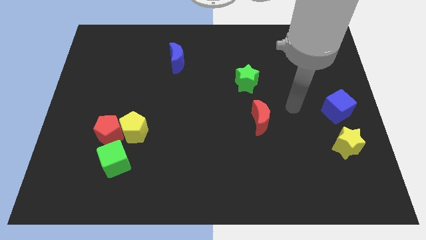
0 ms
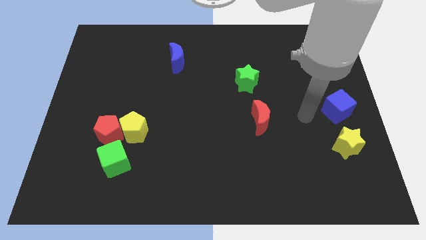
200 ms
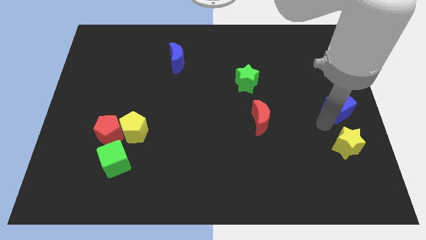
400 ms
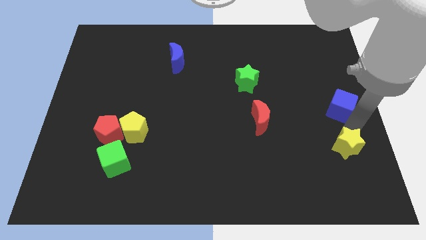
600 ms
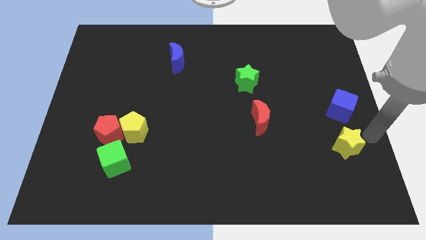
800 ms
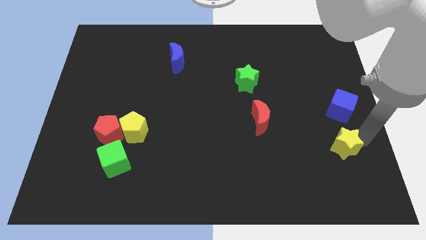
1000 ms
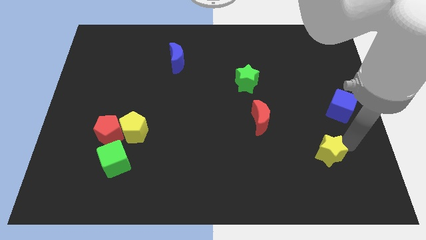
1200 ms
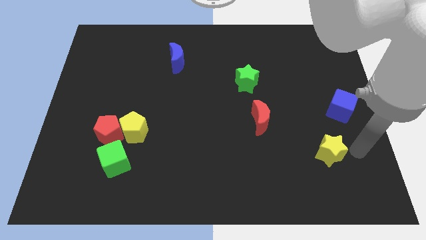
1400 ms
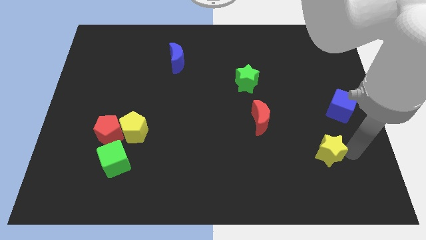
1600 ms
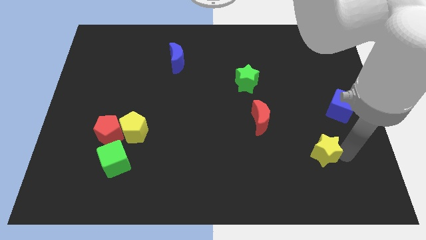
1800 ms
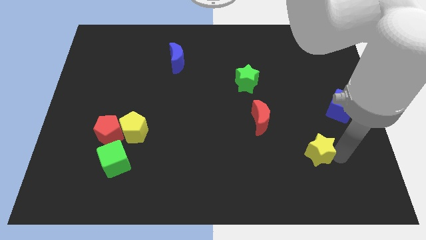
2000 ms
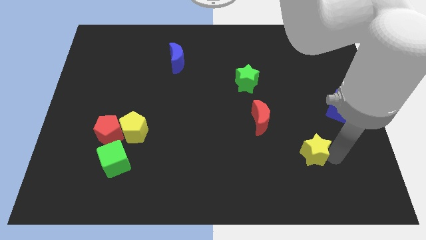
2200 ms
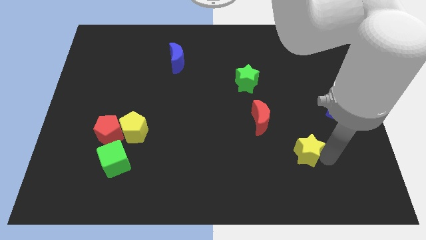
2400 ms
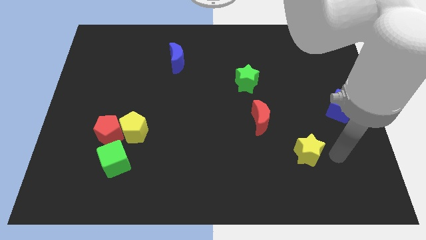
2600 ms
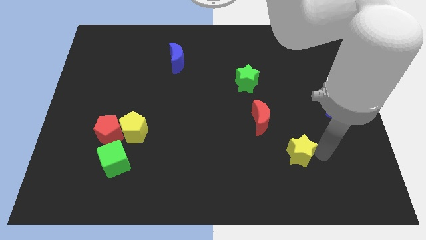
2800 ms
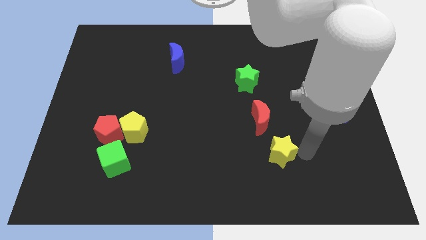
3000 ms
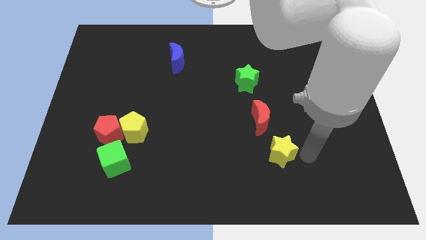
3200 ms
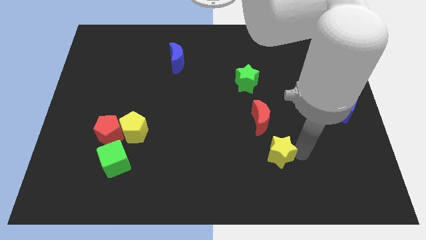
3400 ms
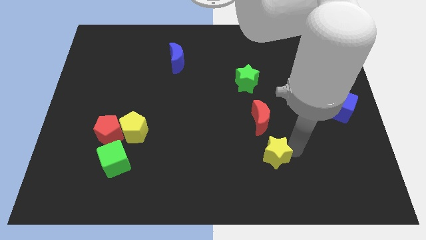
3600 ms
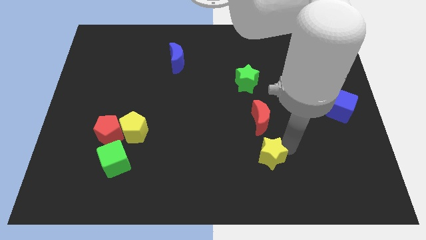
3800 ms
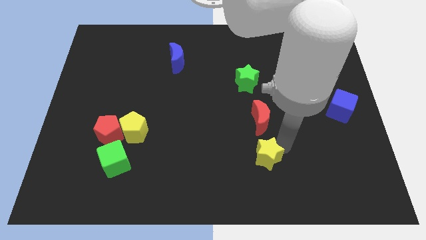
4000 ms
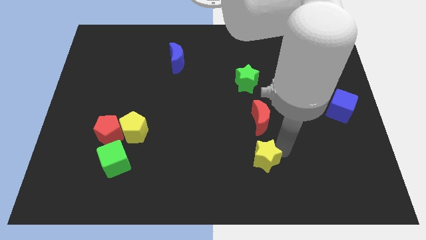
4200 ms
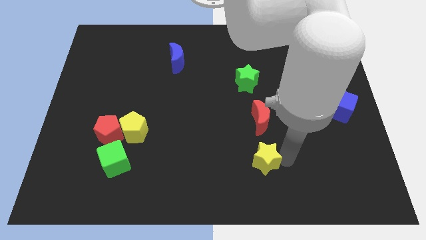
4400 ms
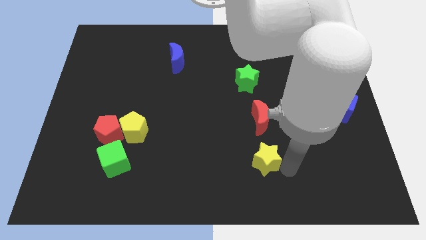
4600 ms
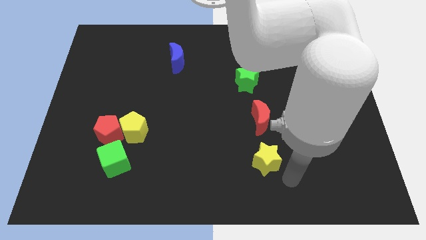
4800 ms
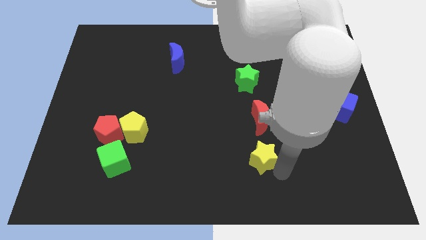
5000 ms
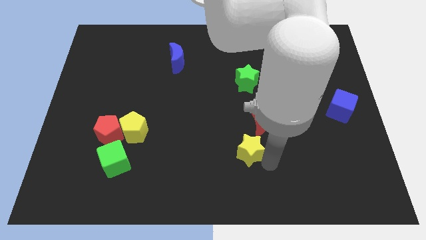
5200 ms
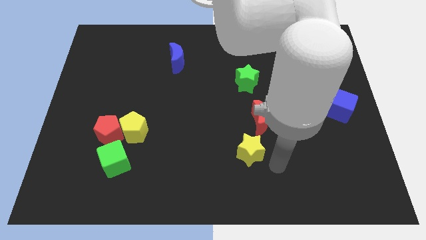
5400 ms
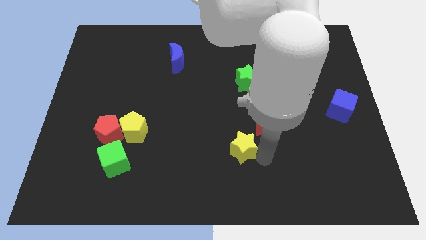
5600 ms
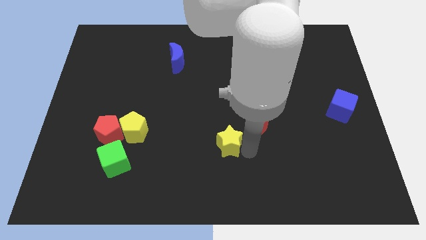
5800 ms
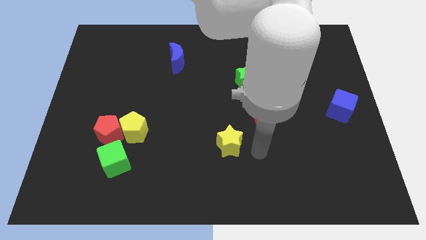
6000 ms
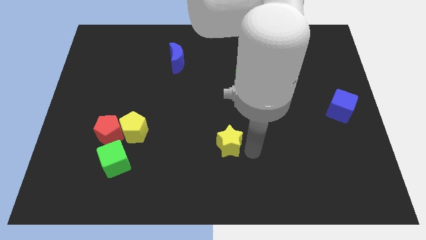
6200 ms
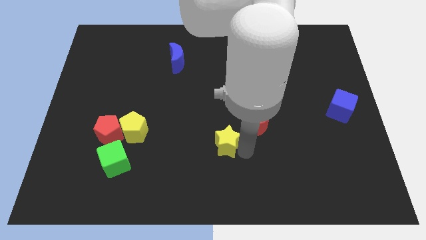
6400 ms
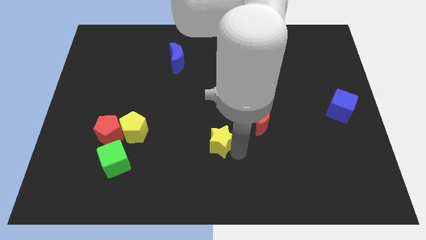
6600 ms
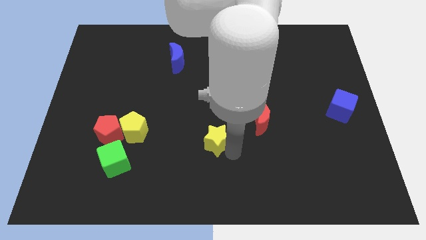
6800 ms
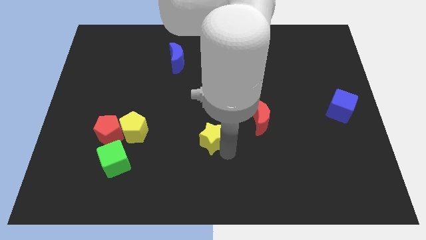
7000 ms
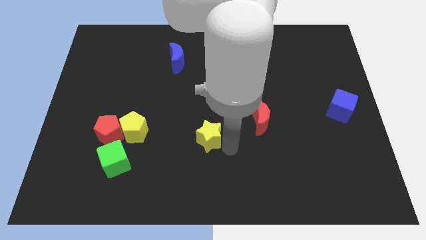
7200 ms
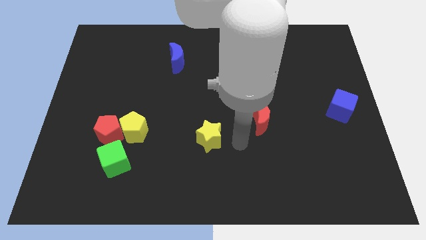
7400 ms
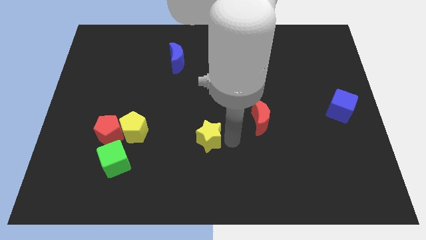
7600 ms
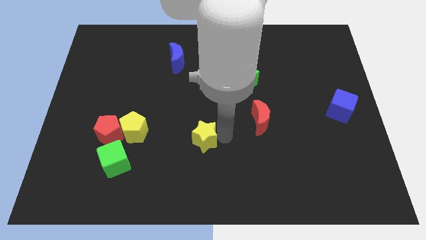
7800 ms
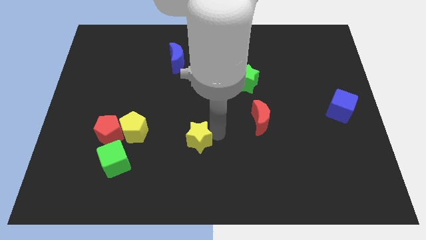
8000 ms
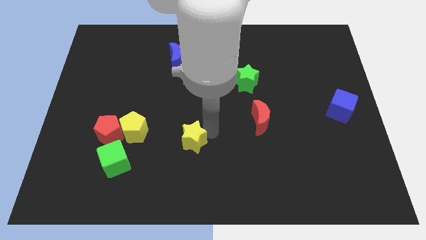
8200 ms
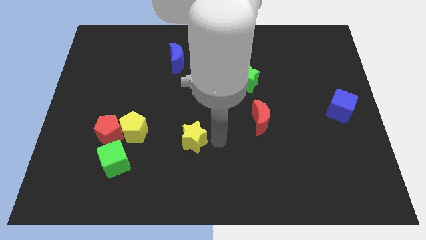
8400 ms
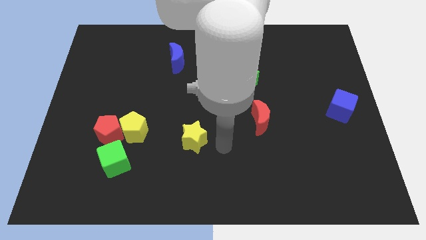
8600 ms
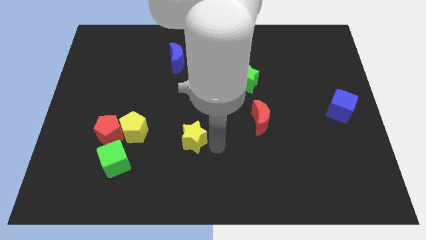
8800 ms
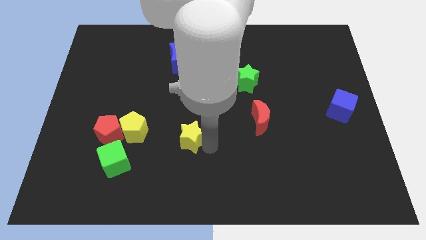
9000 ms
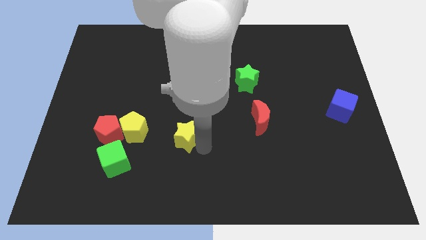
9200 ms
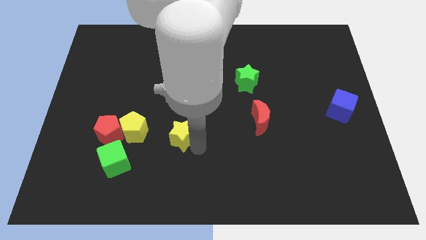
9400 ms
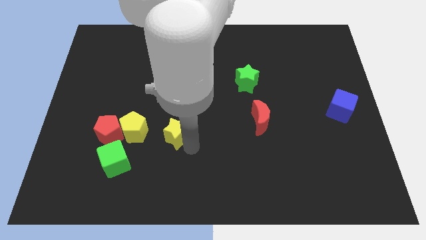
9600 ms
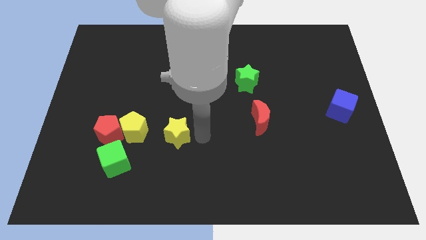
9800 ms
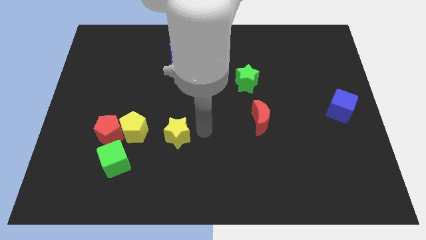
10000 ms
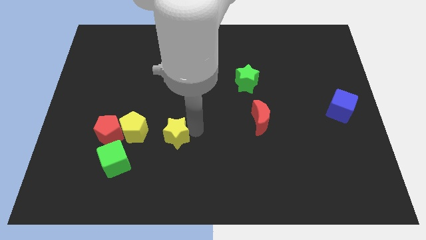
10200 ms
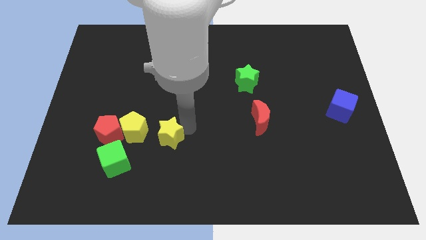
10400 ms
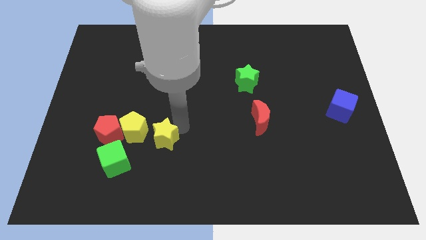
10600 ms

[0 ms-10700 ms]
put the yellow star diagonally up and to the right of the green cube

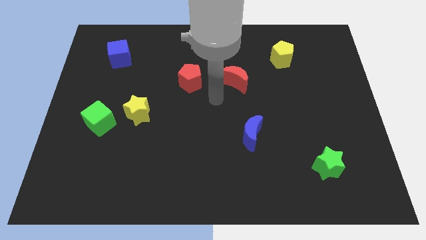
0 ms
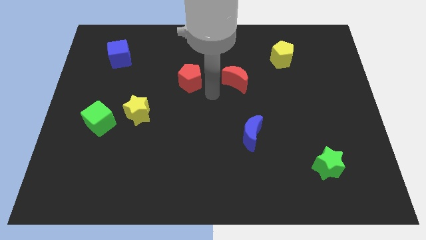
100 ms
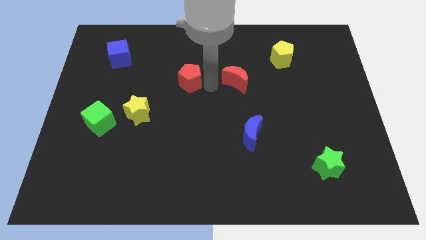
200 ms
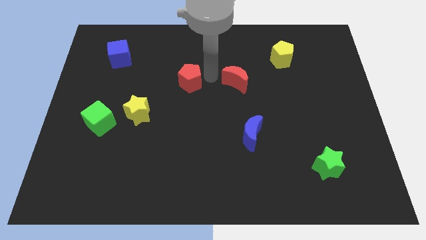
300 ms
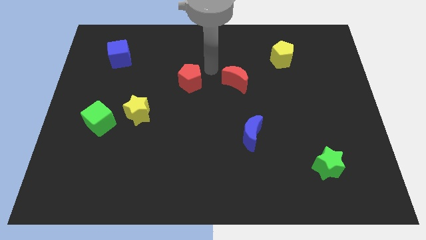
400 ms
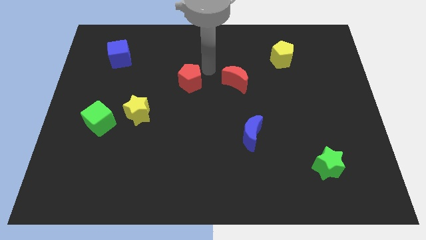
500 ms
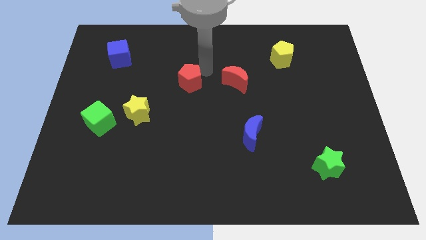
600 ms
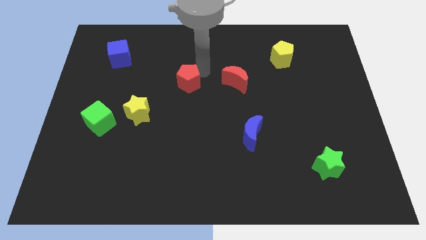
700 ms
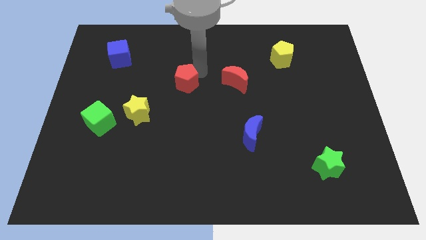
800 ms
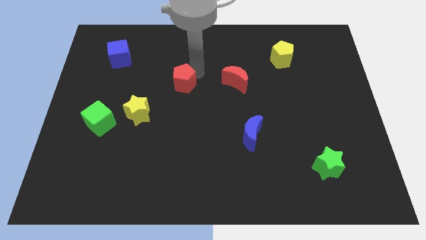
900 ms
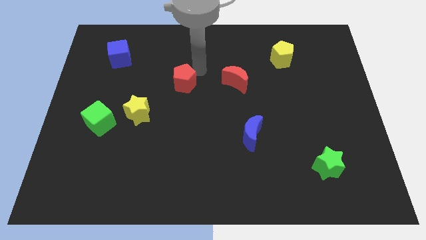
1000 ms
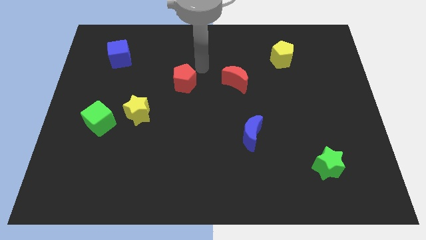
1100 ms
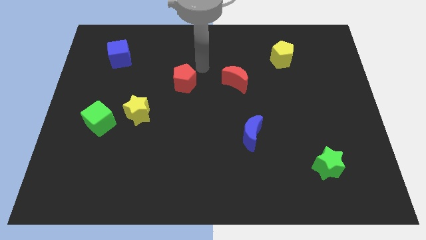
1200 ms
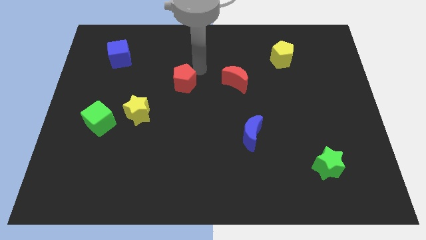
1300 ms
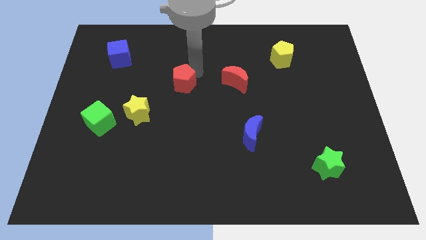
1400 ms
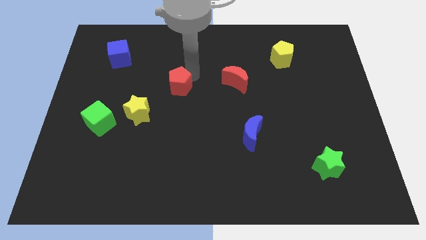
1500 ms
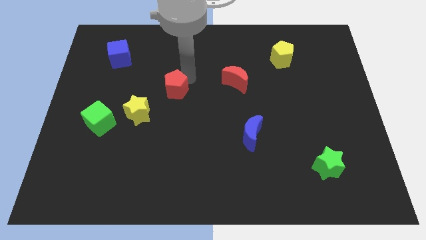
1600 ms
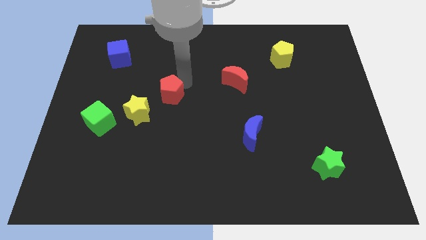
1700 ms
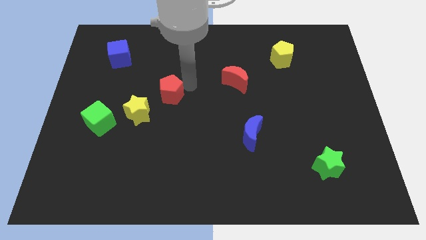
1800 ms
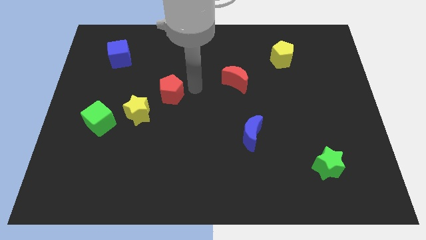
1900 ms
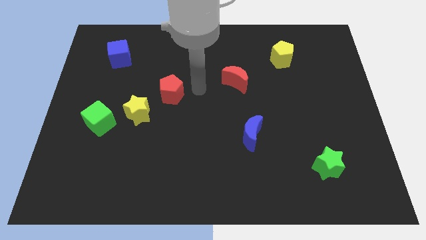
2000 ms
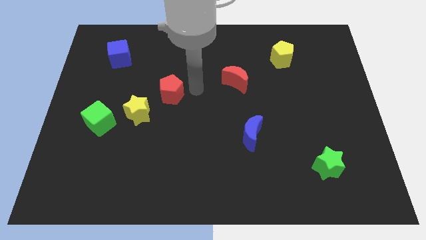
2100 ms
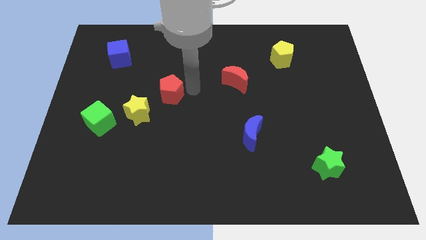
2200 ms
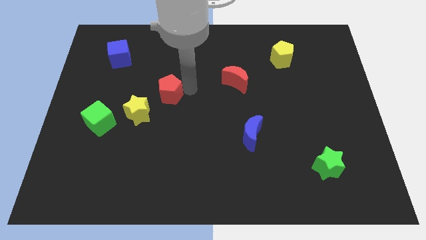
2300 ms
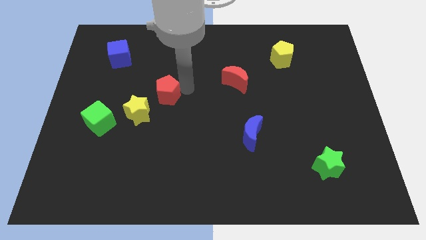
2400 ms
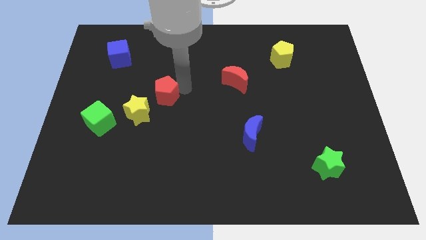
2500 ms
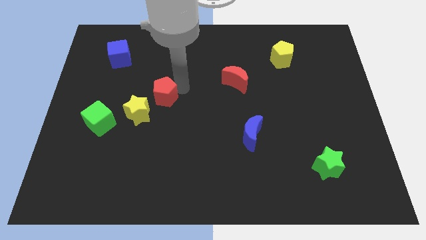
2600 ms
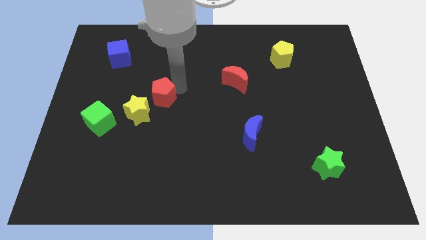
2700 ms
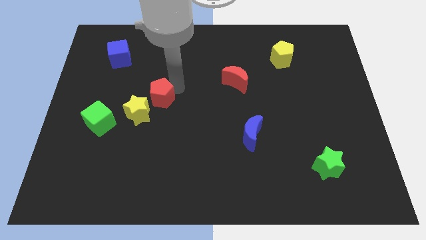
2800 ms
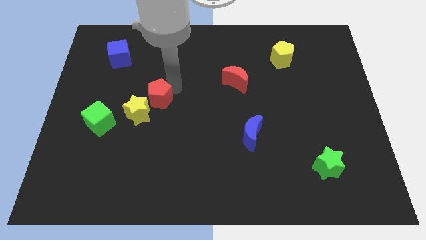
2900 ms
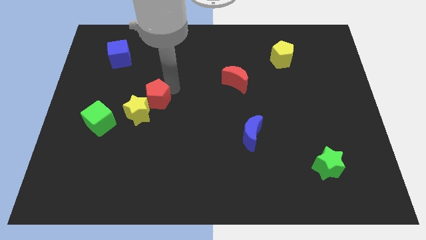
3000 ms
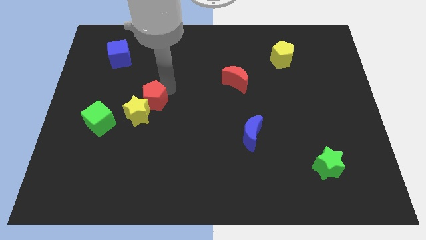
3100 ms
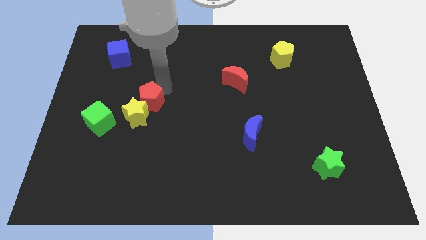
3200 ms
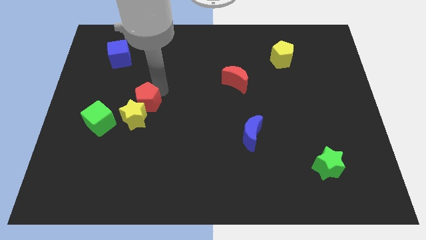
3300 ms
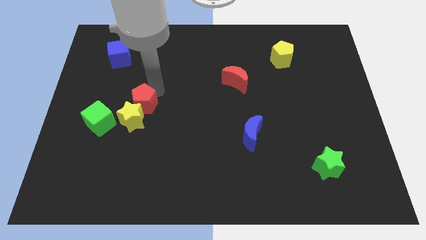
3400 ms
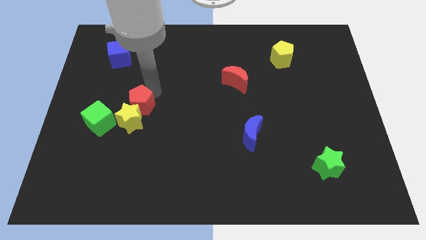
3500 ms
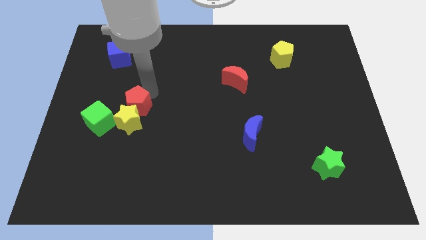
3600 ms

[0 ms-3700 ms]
slide the red pentagon to the top left of the yellow star
